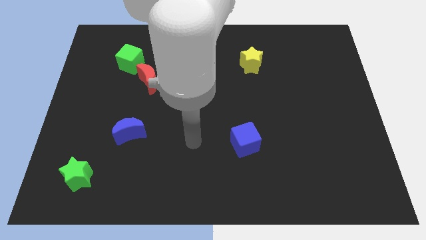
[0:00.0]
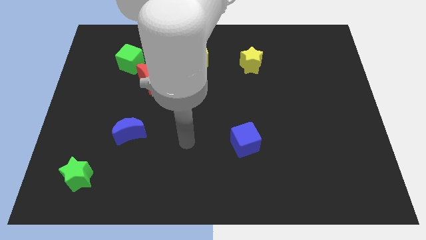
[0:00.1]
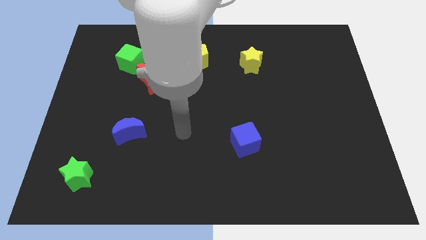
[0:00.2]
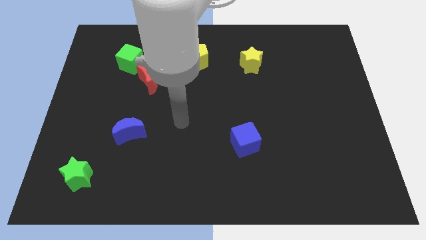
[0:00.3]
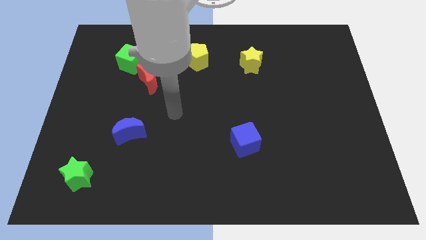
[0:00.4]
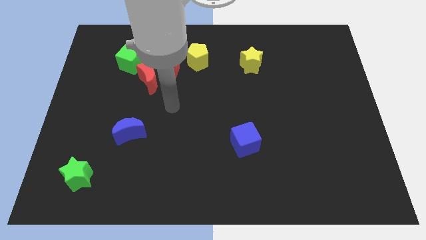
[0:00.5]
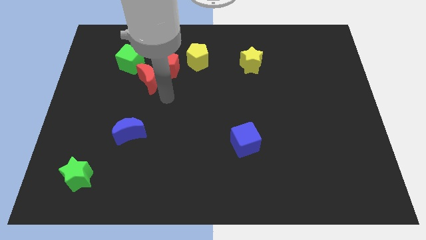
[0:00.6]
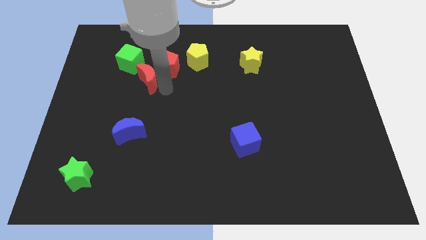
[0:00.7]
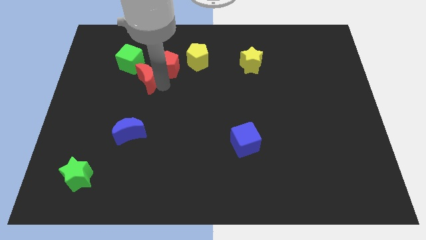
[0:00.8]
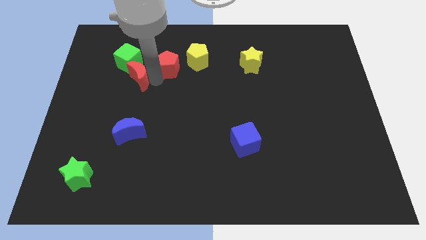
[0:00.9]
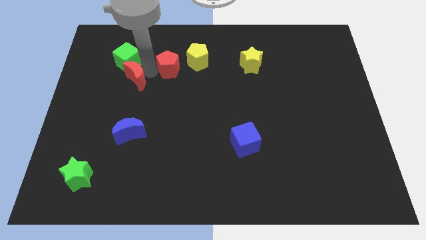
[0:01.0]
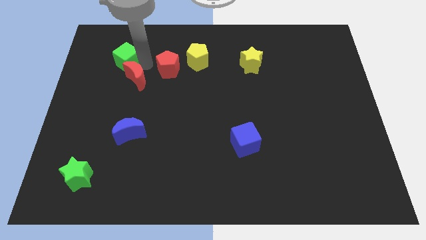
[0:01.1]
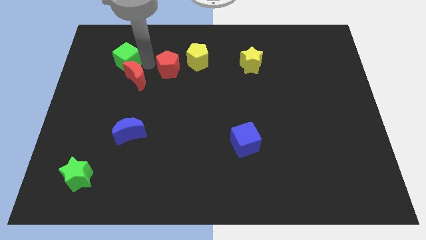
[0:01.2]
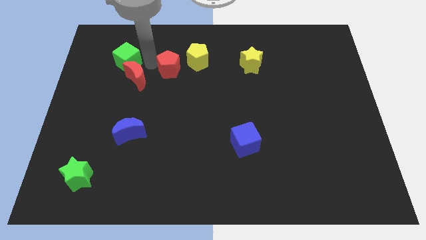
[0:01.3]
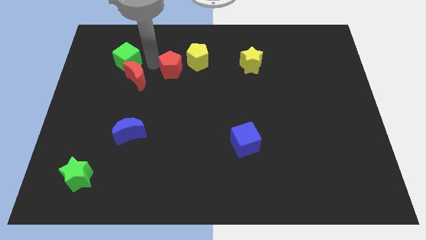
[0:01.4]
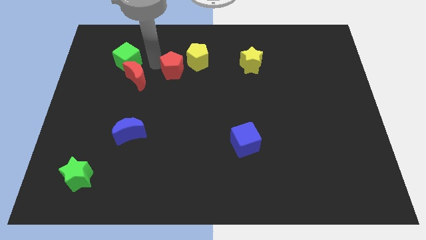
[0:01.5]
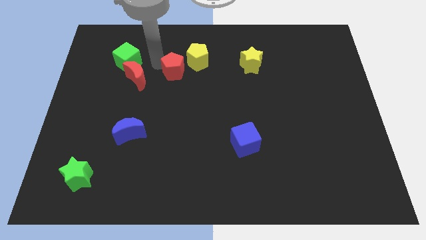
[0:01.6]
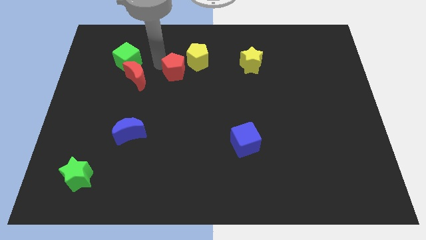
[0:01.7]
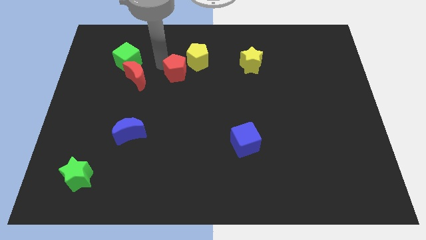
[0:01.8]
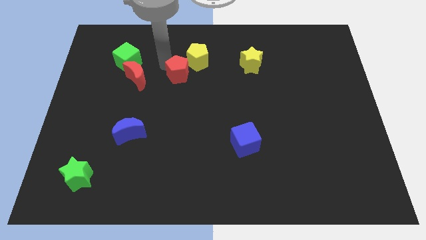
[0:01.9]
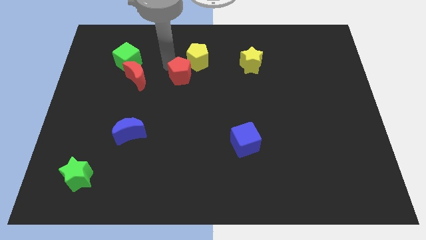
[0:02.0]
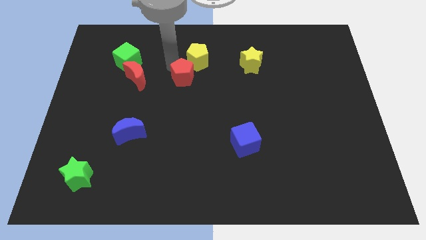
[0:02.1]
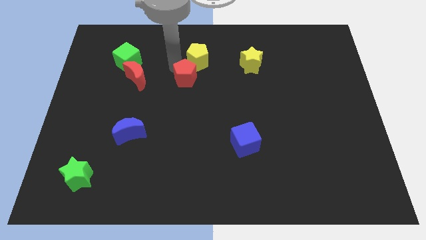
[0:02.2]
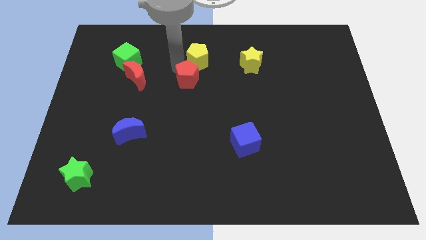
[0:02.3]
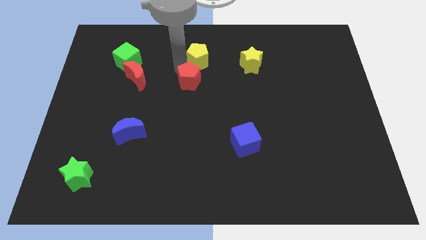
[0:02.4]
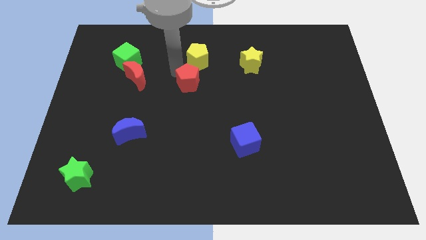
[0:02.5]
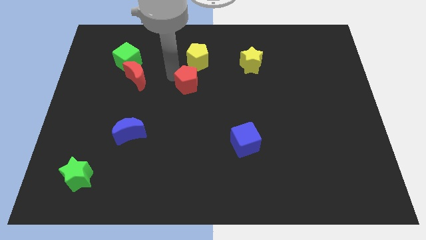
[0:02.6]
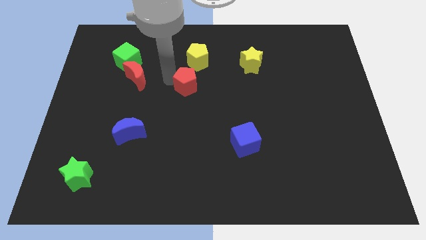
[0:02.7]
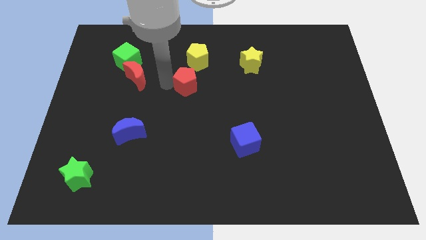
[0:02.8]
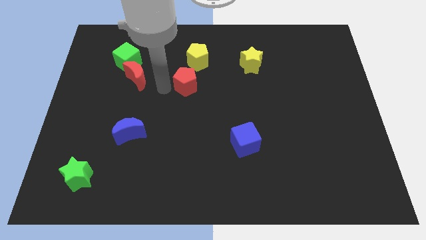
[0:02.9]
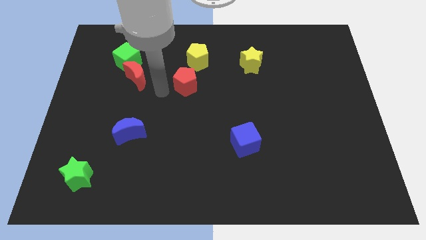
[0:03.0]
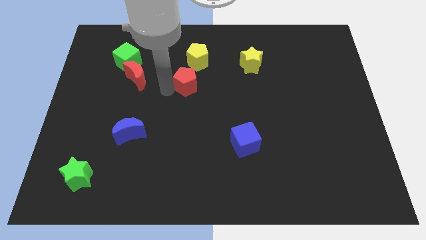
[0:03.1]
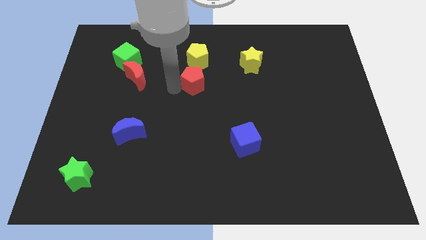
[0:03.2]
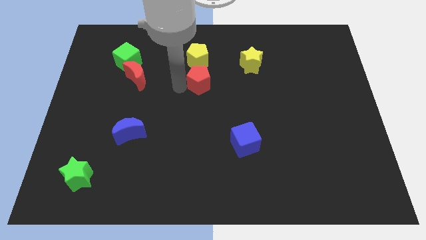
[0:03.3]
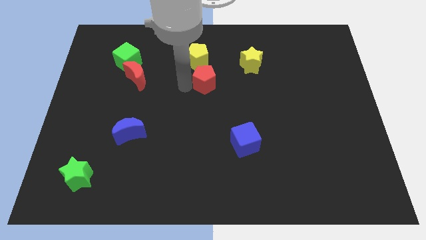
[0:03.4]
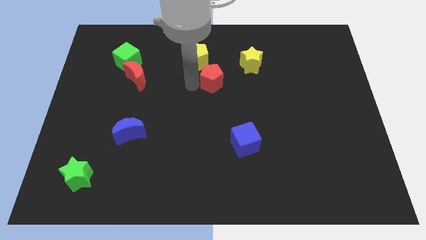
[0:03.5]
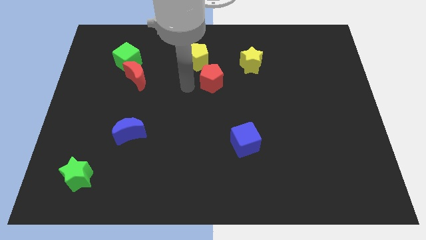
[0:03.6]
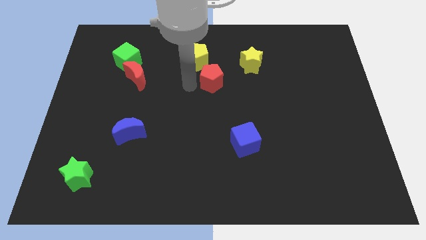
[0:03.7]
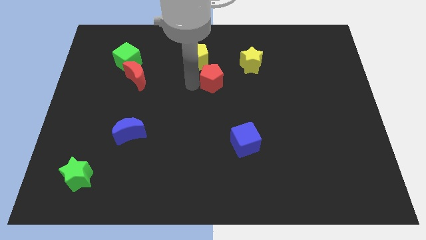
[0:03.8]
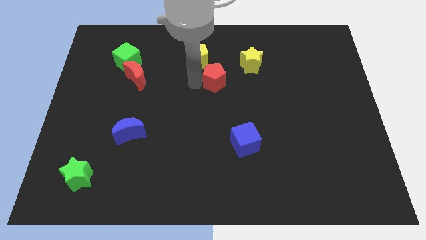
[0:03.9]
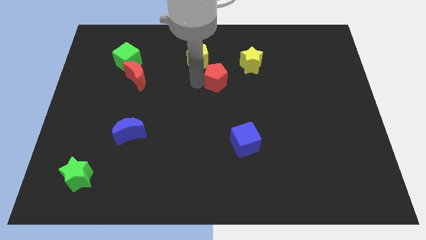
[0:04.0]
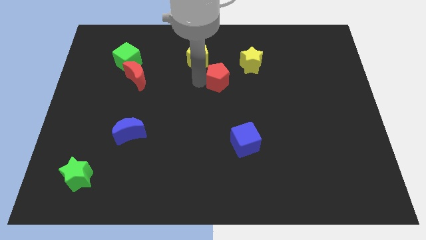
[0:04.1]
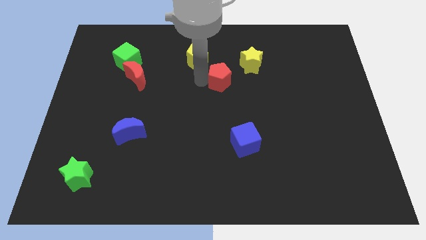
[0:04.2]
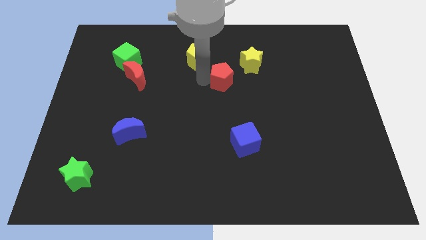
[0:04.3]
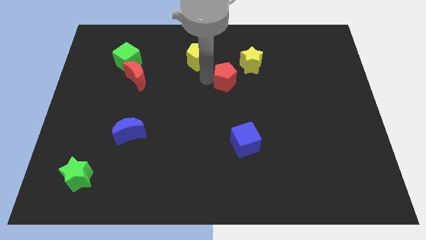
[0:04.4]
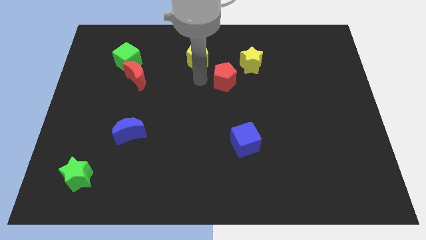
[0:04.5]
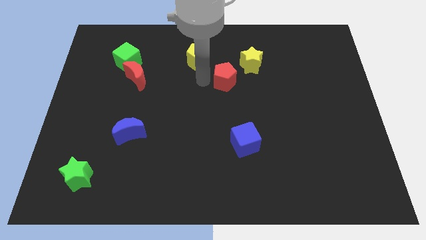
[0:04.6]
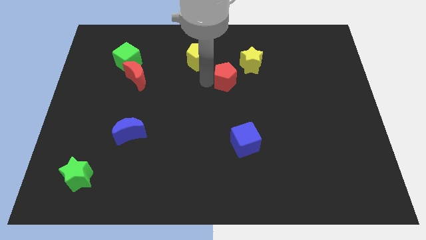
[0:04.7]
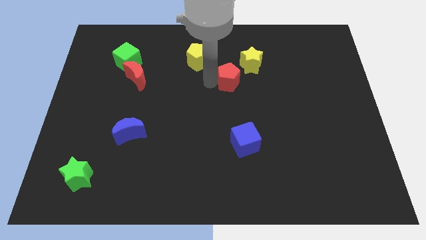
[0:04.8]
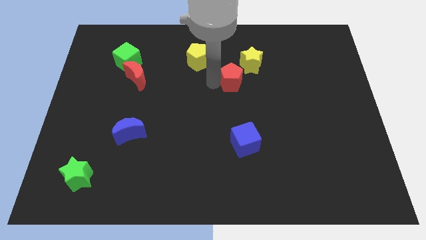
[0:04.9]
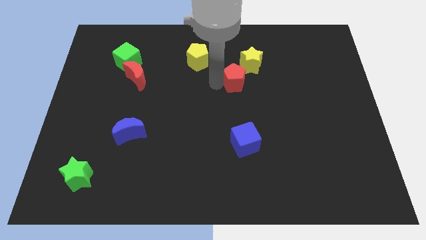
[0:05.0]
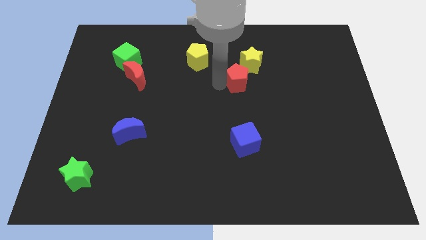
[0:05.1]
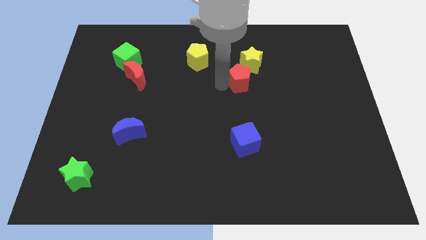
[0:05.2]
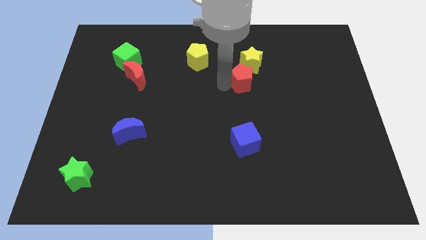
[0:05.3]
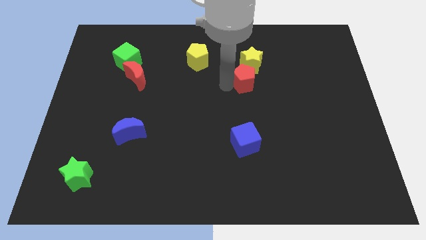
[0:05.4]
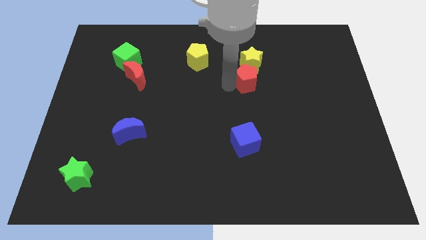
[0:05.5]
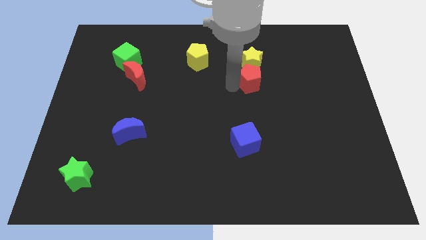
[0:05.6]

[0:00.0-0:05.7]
move the red pentagon right

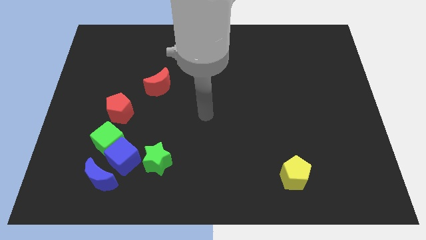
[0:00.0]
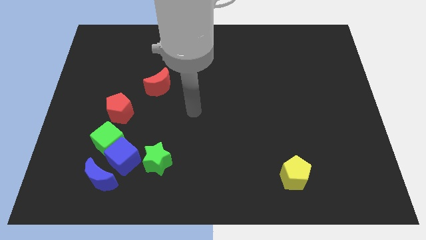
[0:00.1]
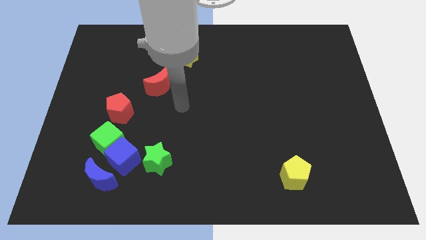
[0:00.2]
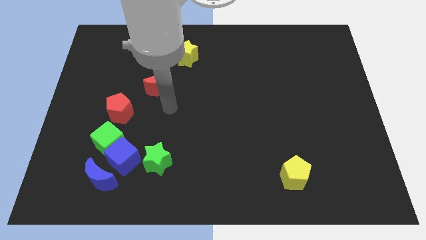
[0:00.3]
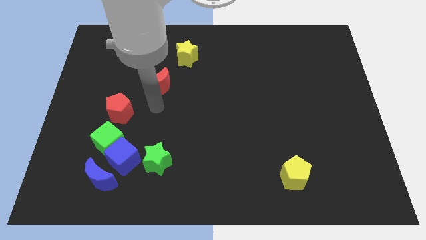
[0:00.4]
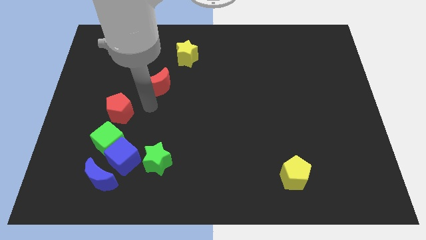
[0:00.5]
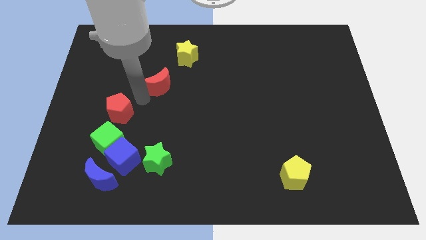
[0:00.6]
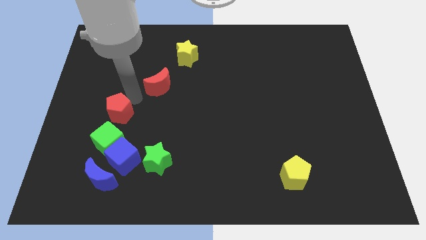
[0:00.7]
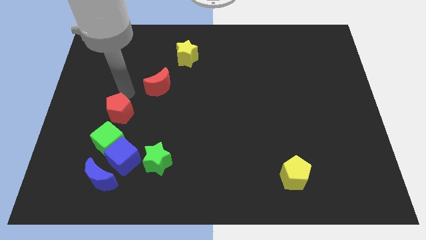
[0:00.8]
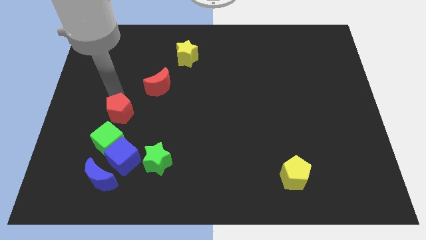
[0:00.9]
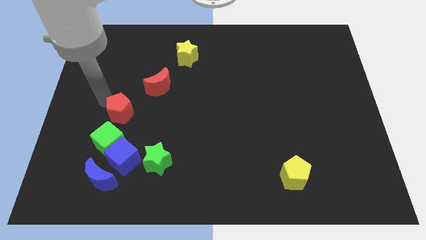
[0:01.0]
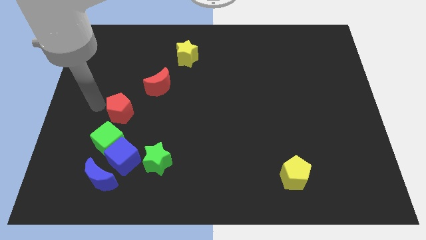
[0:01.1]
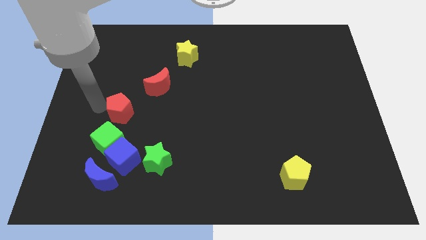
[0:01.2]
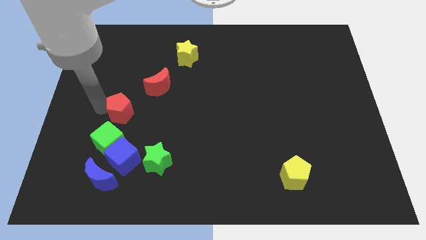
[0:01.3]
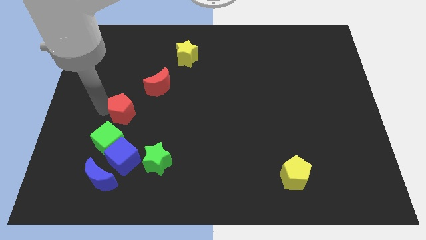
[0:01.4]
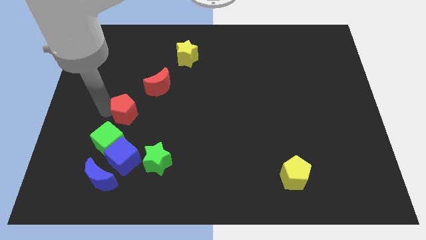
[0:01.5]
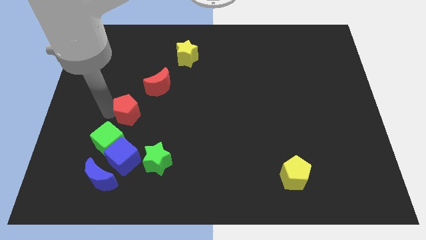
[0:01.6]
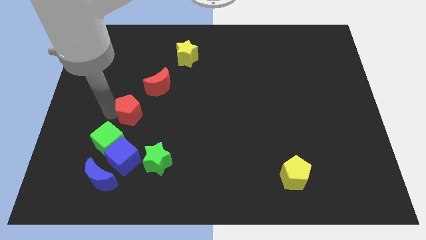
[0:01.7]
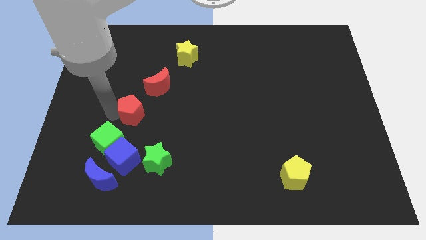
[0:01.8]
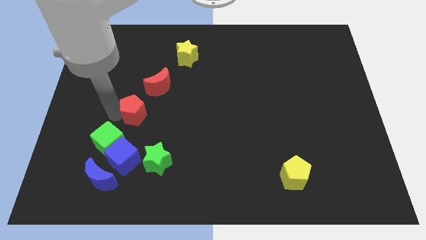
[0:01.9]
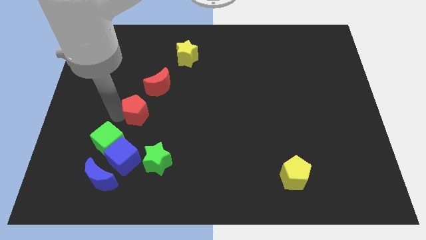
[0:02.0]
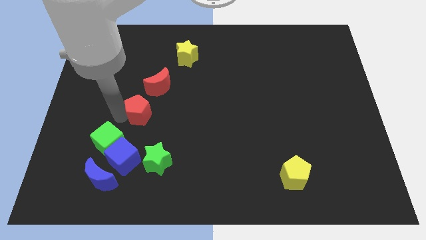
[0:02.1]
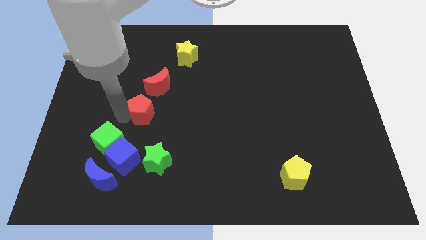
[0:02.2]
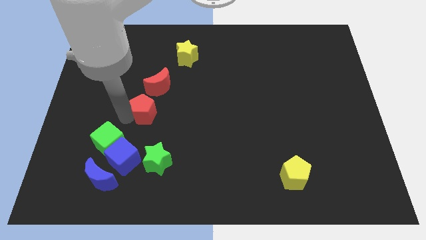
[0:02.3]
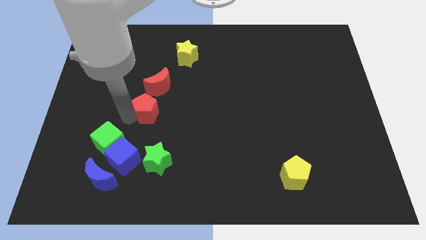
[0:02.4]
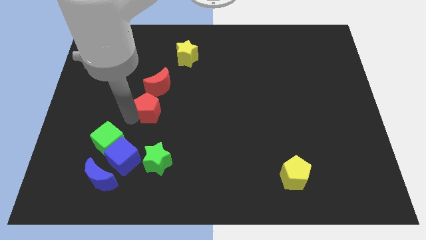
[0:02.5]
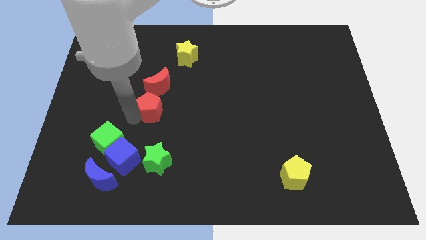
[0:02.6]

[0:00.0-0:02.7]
move the red pentagon a bit to the right
